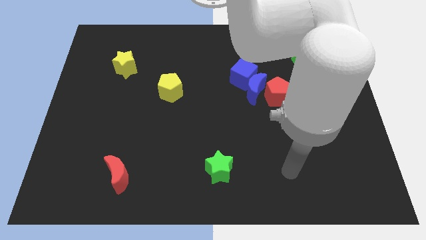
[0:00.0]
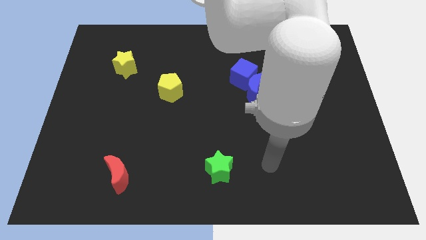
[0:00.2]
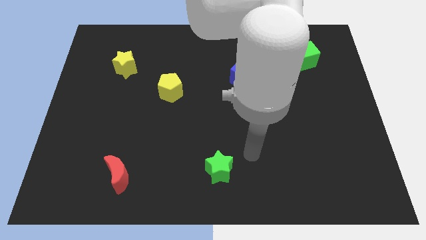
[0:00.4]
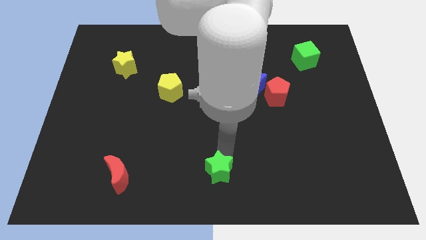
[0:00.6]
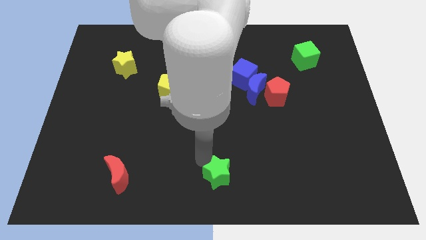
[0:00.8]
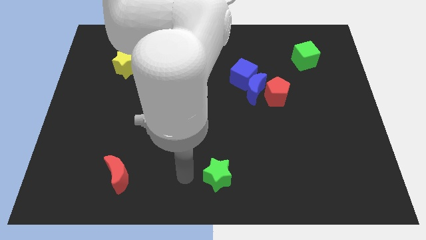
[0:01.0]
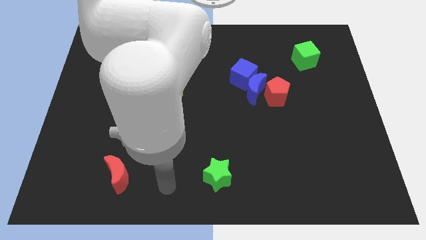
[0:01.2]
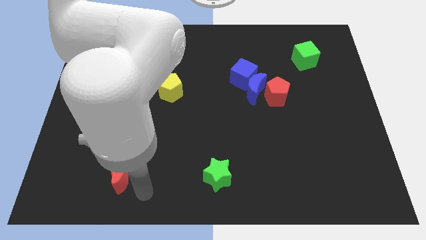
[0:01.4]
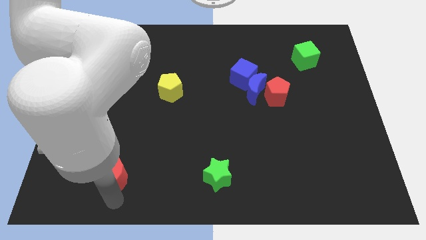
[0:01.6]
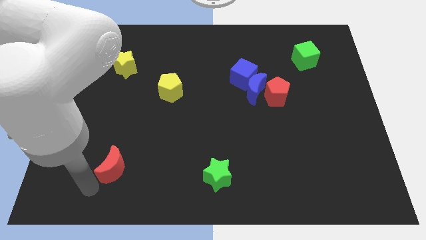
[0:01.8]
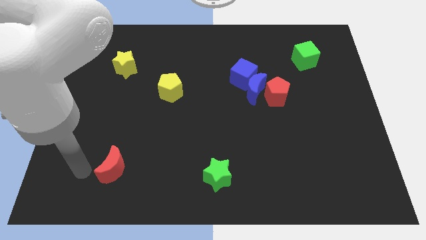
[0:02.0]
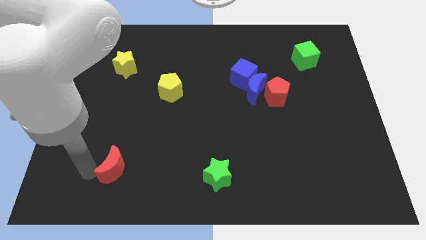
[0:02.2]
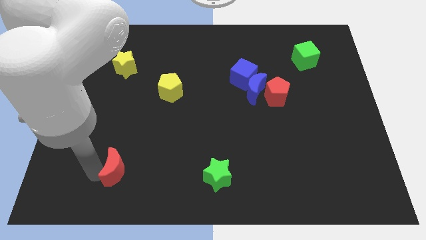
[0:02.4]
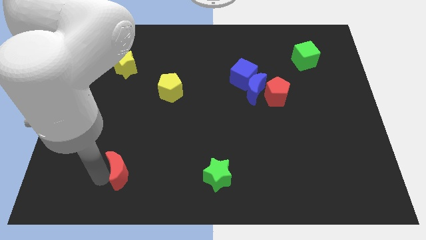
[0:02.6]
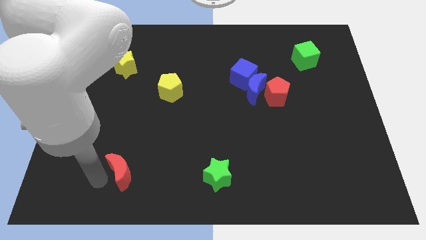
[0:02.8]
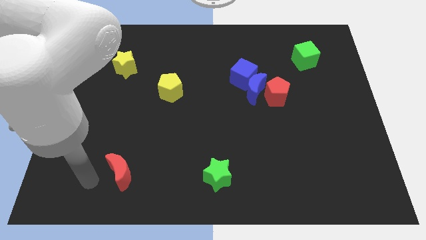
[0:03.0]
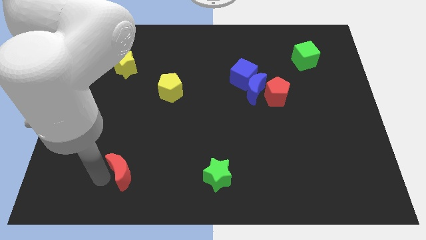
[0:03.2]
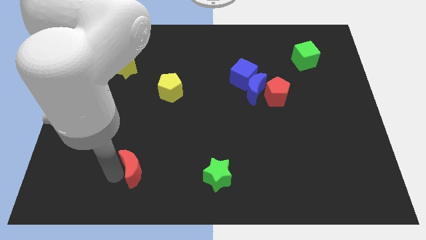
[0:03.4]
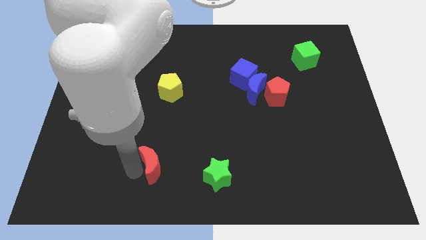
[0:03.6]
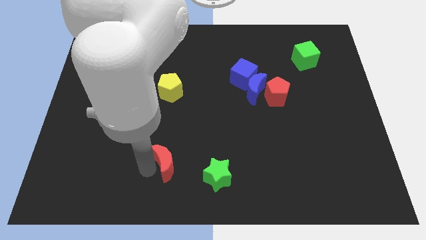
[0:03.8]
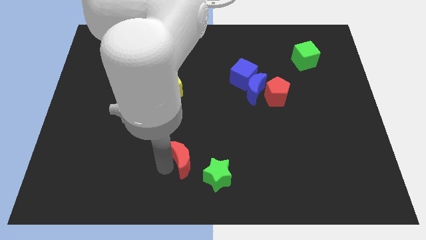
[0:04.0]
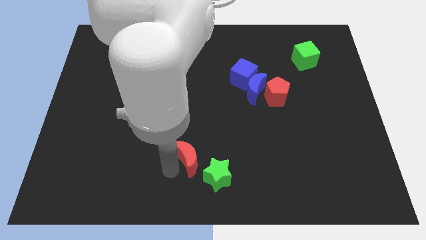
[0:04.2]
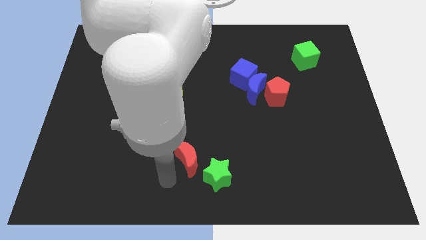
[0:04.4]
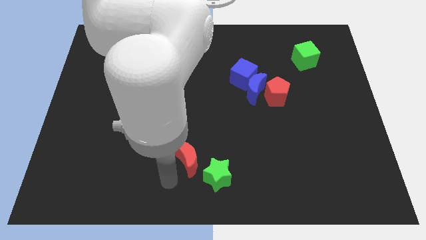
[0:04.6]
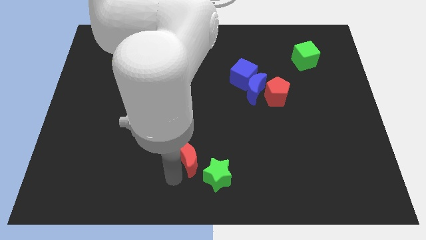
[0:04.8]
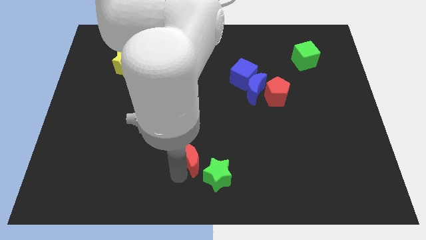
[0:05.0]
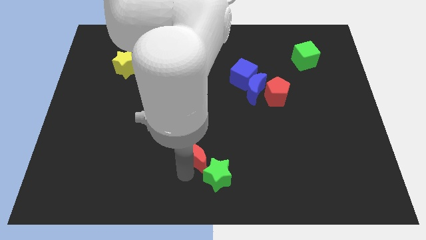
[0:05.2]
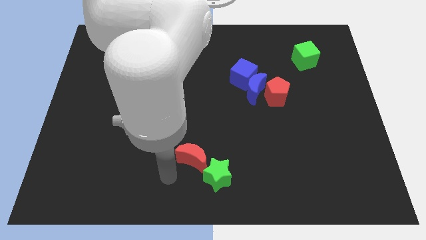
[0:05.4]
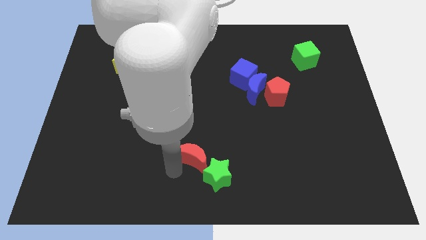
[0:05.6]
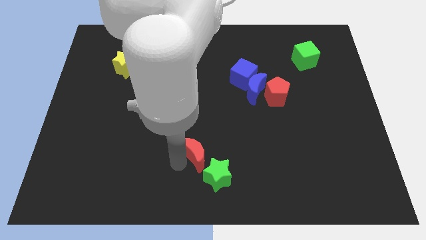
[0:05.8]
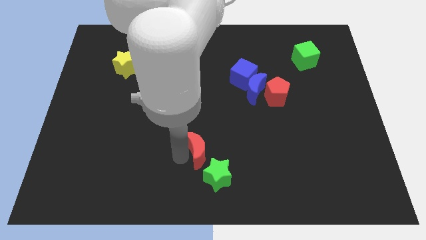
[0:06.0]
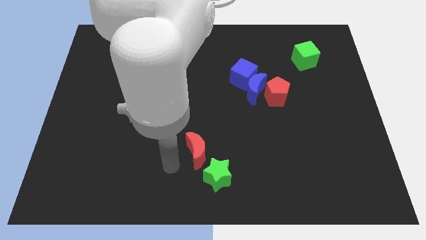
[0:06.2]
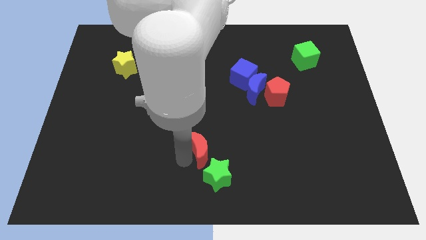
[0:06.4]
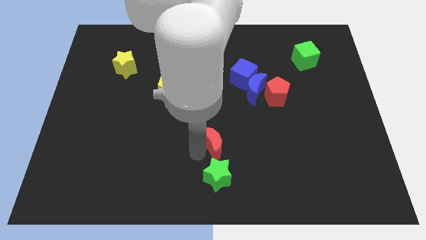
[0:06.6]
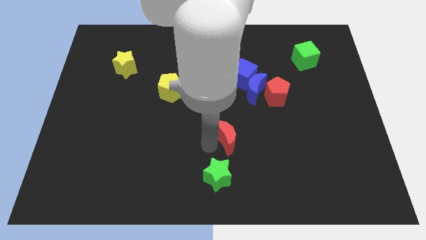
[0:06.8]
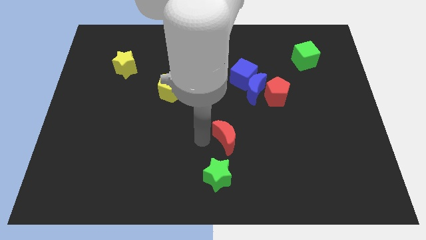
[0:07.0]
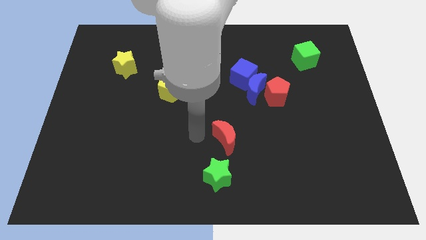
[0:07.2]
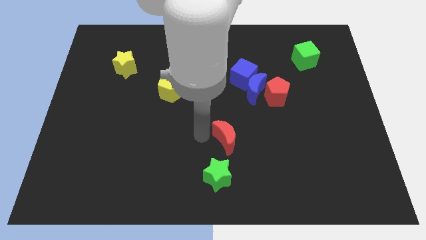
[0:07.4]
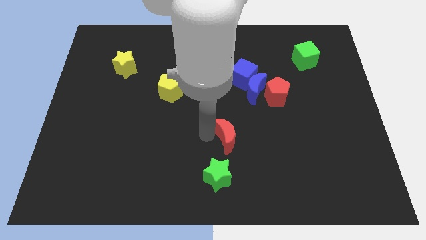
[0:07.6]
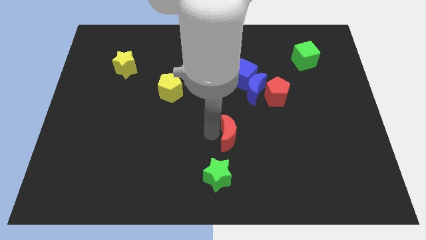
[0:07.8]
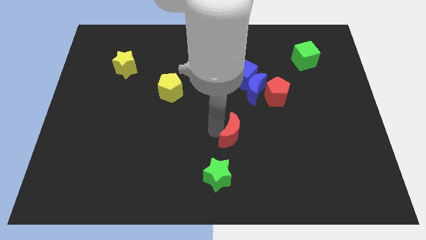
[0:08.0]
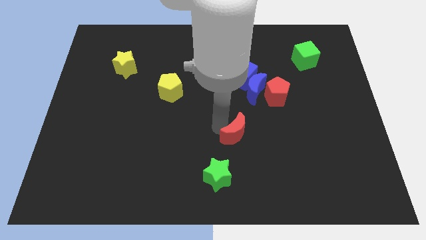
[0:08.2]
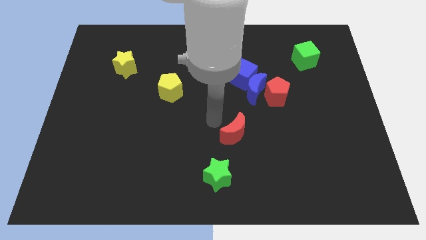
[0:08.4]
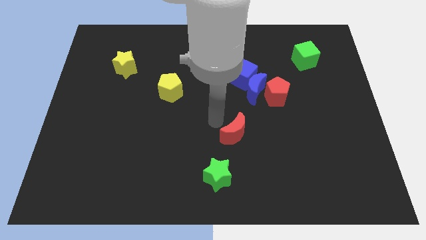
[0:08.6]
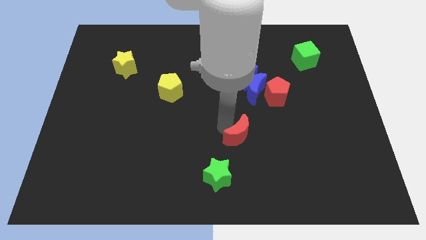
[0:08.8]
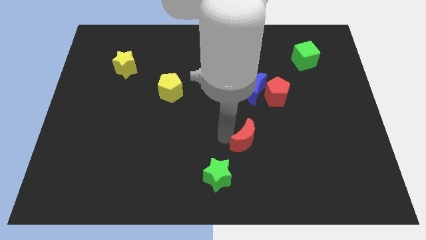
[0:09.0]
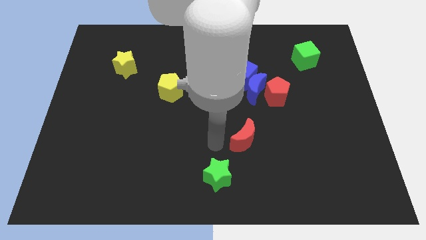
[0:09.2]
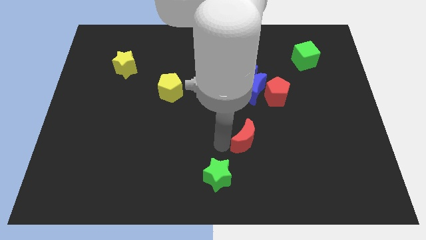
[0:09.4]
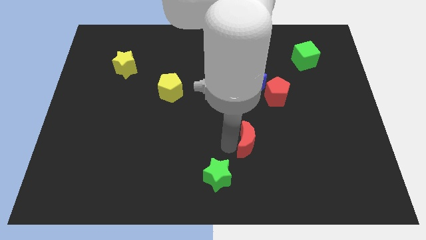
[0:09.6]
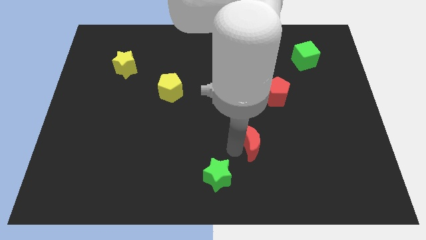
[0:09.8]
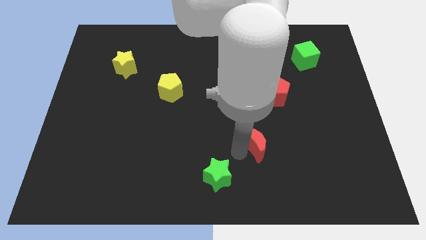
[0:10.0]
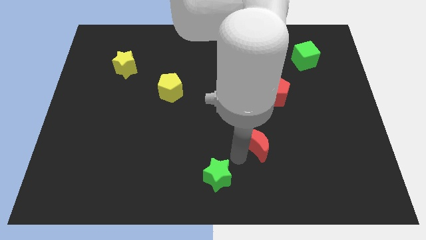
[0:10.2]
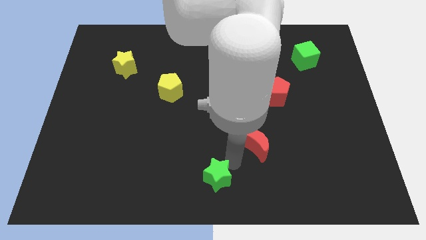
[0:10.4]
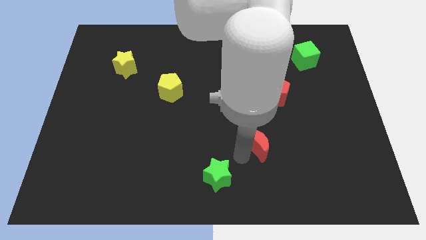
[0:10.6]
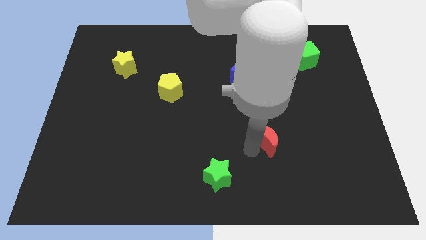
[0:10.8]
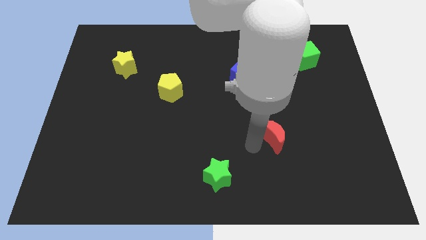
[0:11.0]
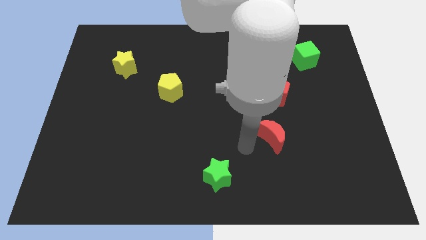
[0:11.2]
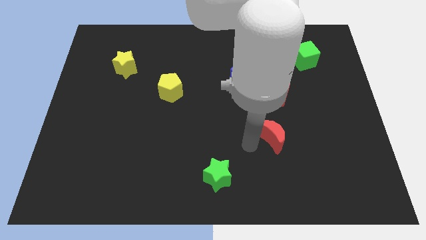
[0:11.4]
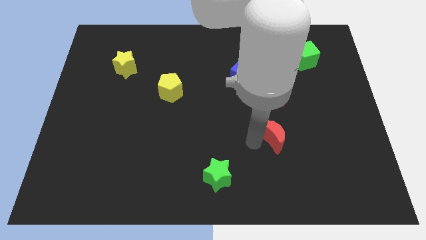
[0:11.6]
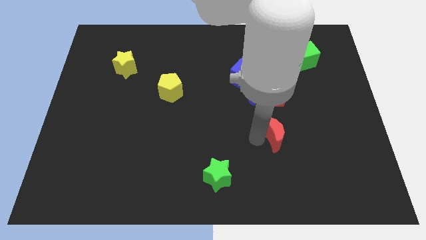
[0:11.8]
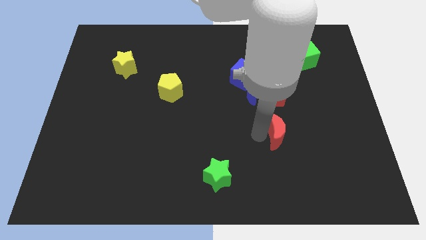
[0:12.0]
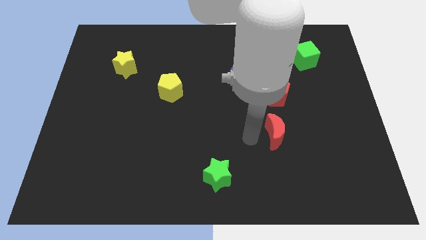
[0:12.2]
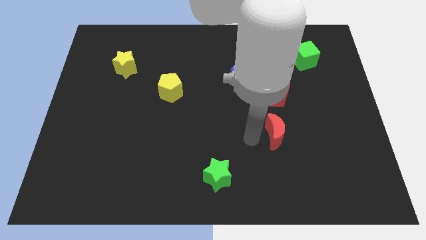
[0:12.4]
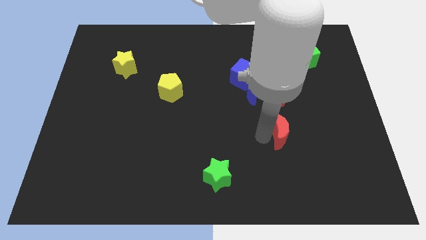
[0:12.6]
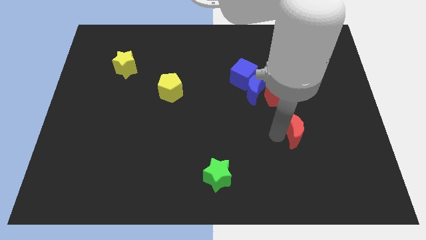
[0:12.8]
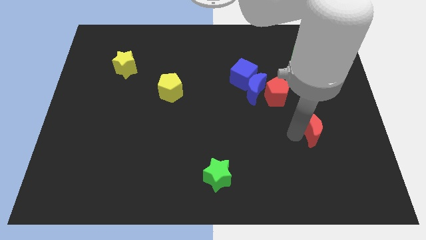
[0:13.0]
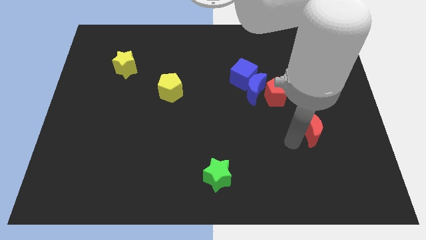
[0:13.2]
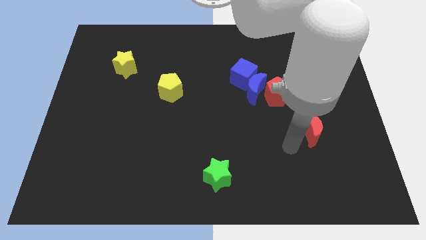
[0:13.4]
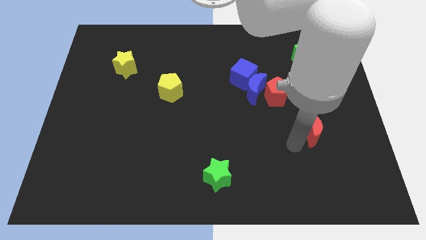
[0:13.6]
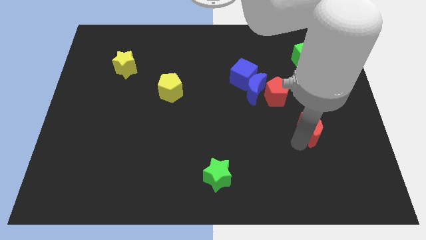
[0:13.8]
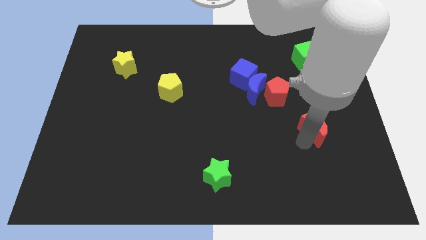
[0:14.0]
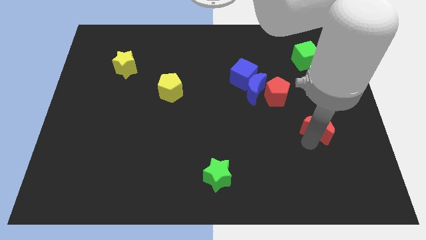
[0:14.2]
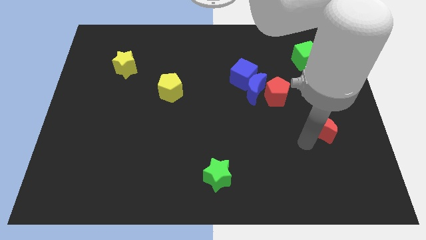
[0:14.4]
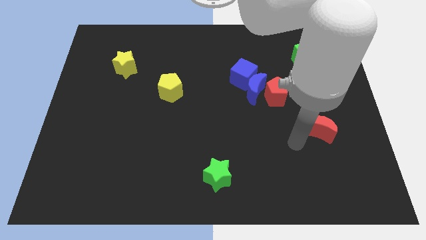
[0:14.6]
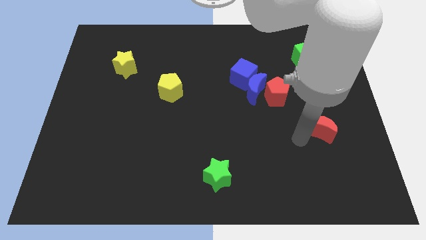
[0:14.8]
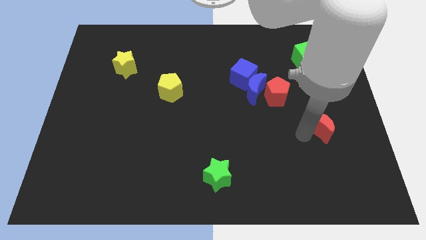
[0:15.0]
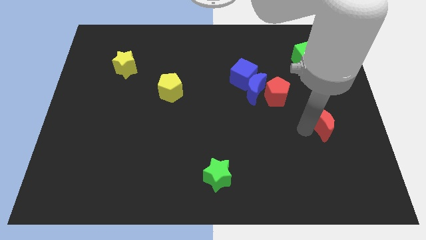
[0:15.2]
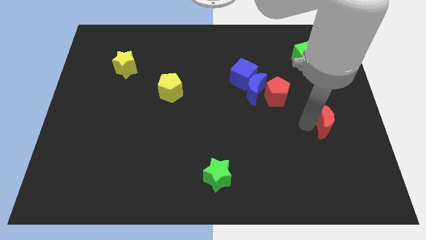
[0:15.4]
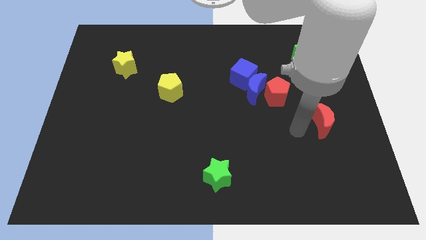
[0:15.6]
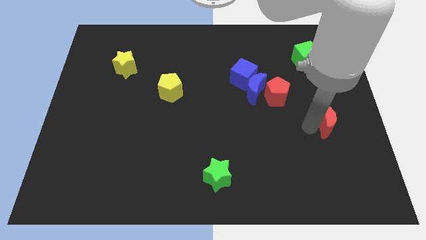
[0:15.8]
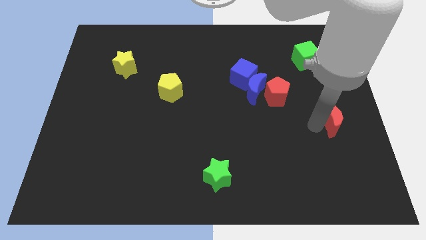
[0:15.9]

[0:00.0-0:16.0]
slide the red moon to the center right
